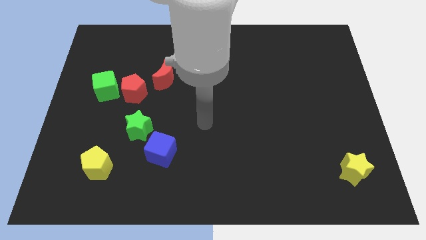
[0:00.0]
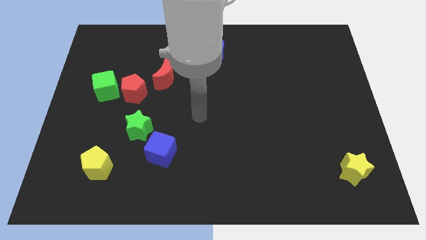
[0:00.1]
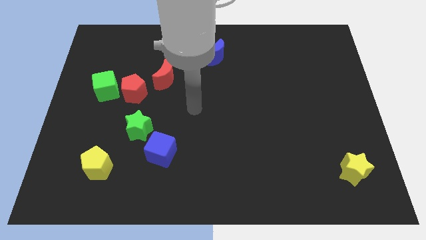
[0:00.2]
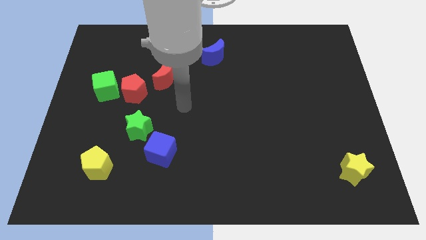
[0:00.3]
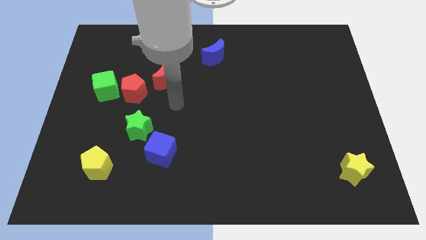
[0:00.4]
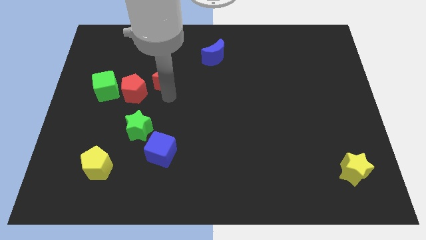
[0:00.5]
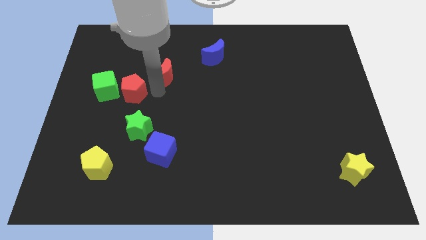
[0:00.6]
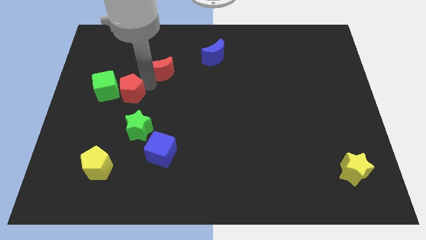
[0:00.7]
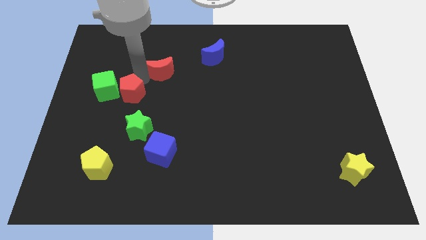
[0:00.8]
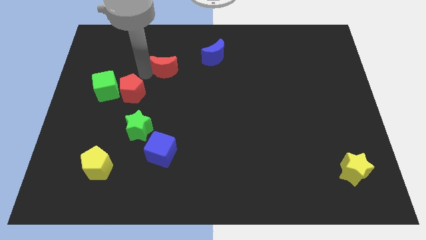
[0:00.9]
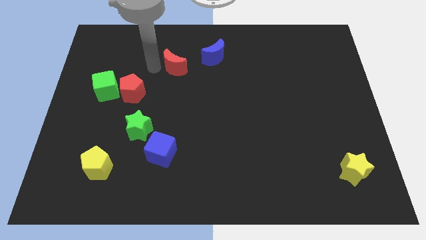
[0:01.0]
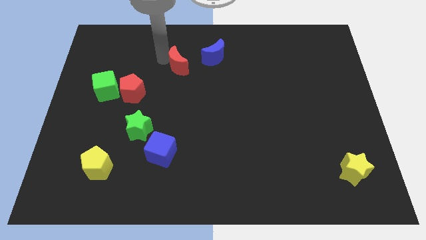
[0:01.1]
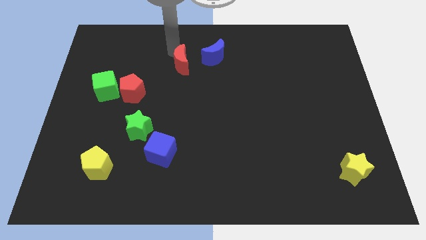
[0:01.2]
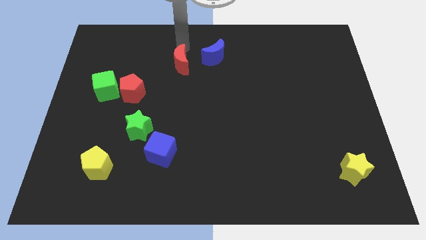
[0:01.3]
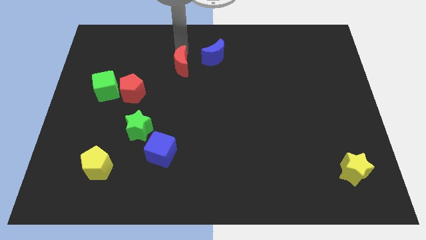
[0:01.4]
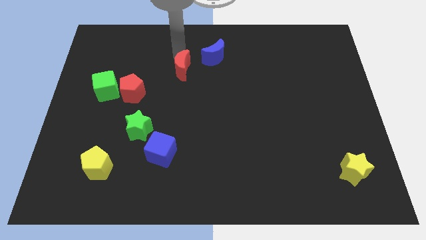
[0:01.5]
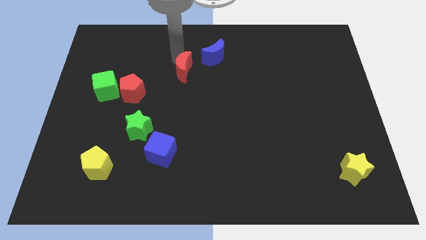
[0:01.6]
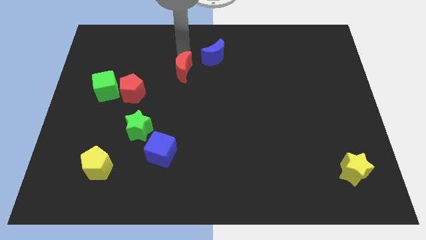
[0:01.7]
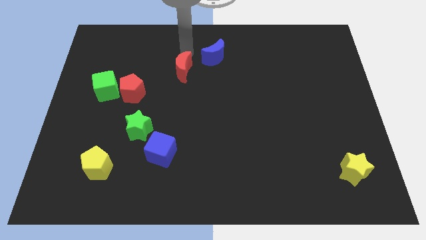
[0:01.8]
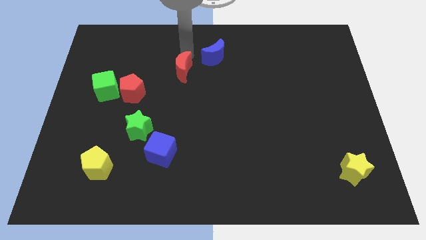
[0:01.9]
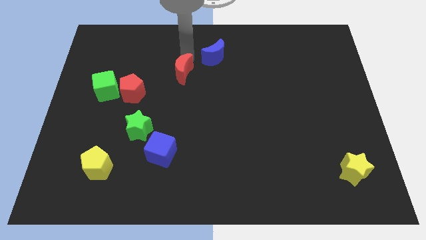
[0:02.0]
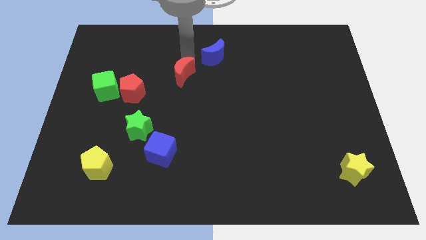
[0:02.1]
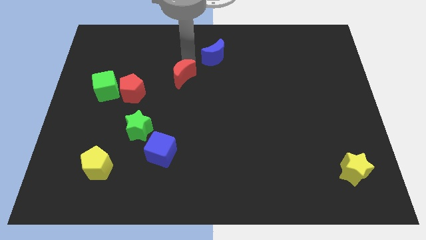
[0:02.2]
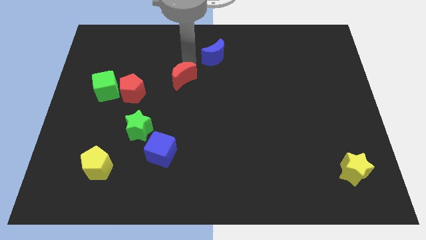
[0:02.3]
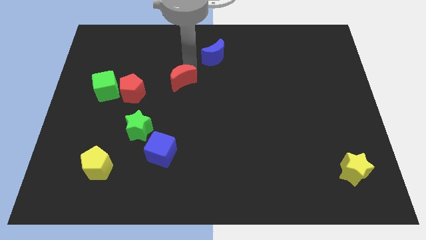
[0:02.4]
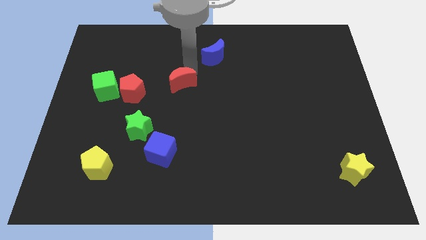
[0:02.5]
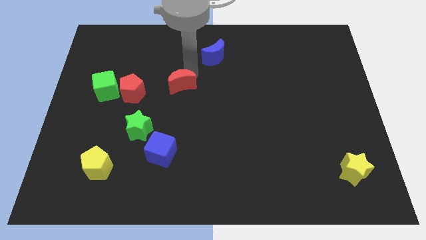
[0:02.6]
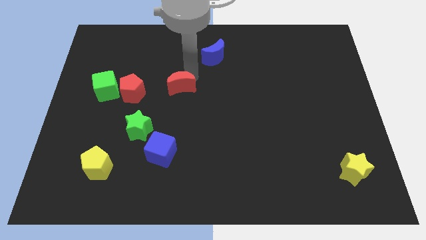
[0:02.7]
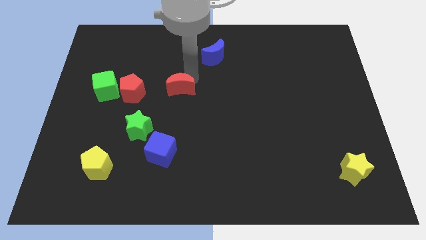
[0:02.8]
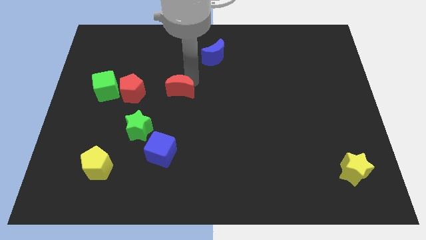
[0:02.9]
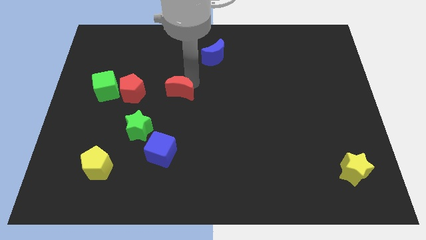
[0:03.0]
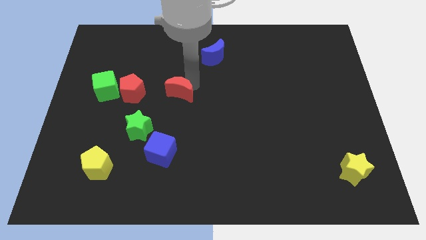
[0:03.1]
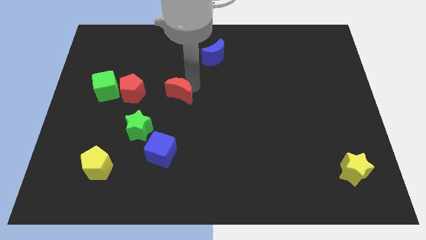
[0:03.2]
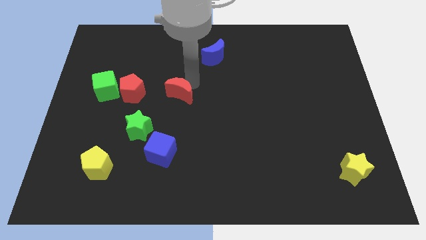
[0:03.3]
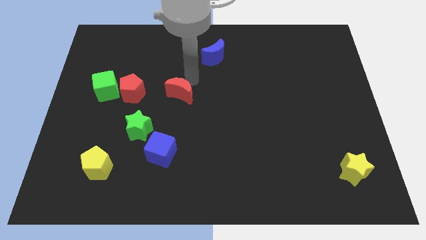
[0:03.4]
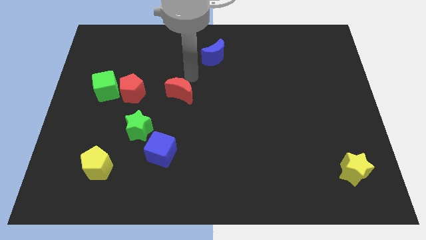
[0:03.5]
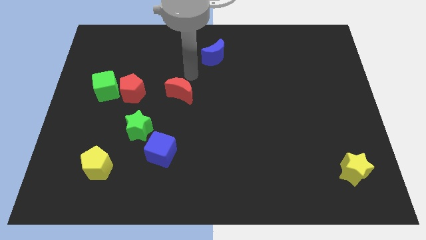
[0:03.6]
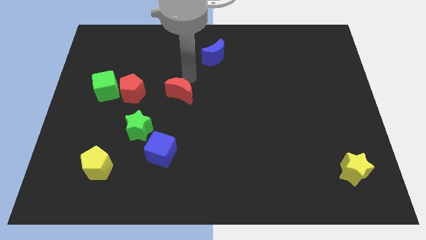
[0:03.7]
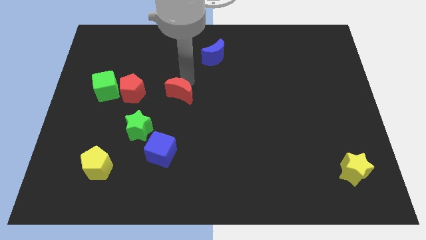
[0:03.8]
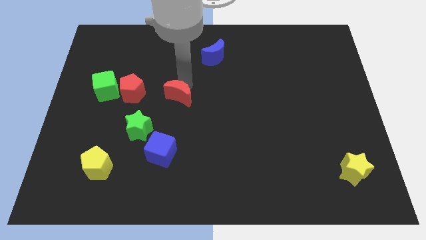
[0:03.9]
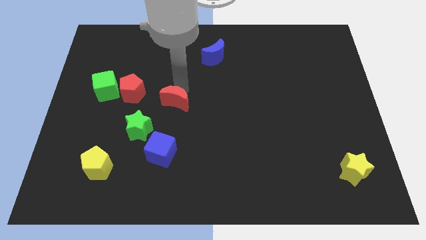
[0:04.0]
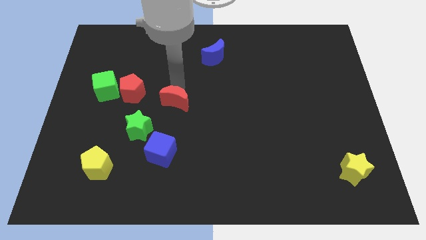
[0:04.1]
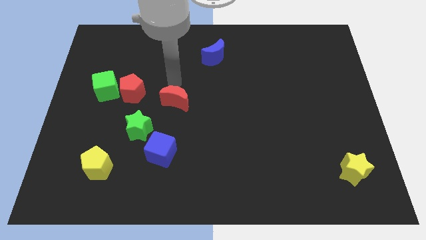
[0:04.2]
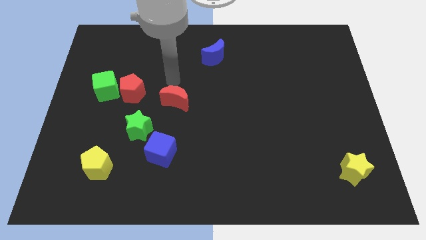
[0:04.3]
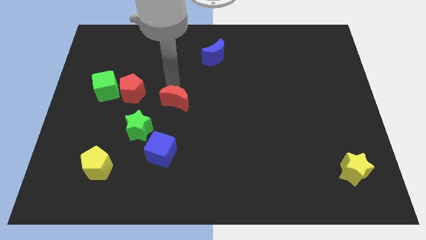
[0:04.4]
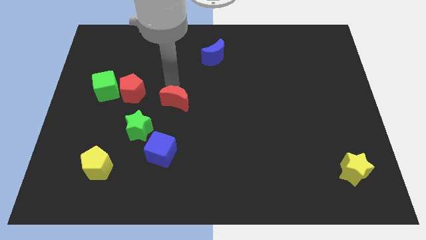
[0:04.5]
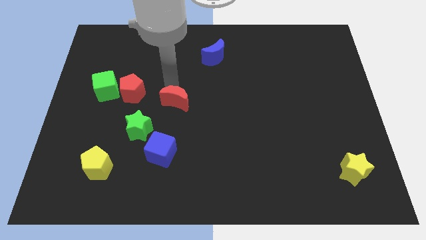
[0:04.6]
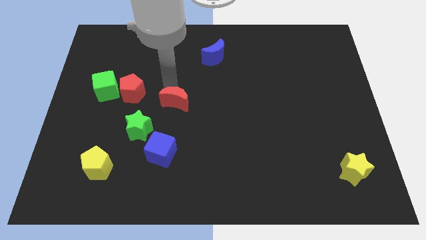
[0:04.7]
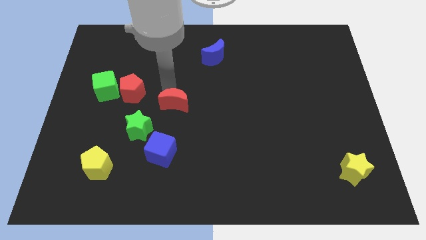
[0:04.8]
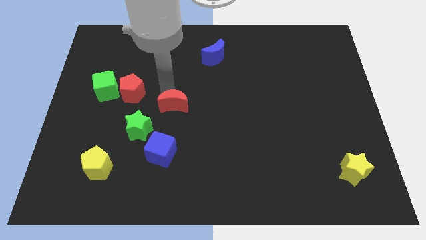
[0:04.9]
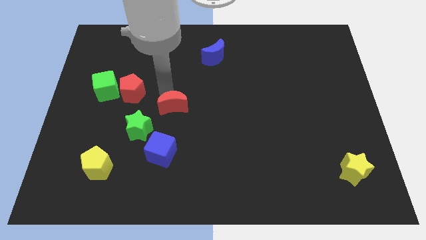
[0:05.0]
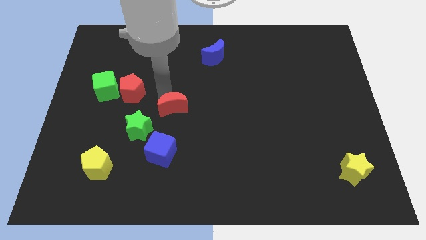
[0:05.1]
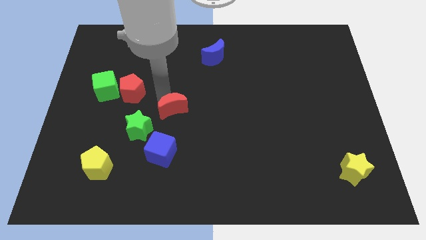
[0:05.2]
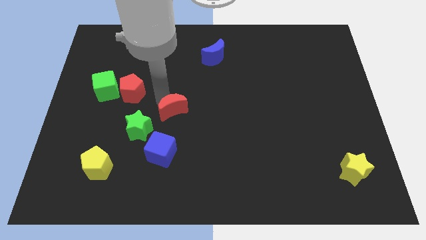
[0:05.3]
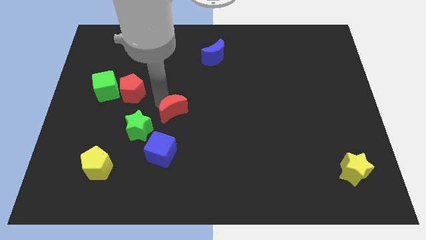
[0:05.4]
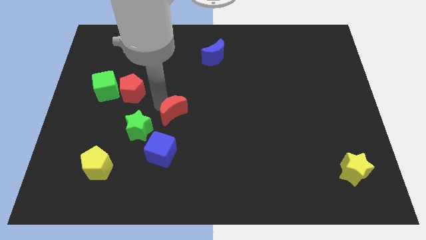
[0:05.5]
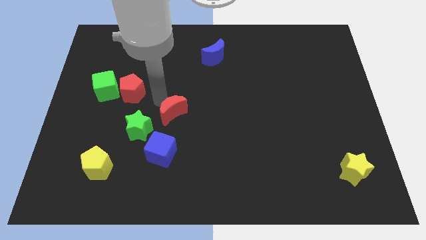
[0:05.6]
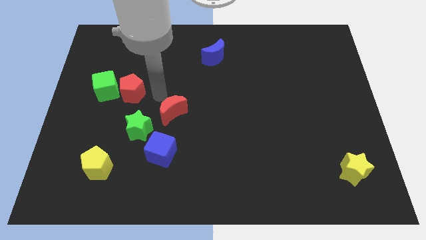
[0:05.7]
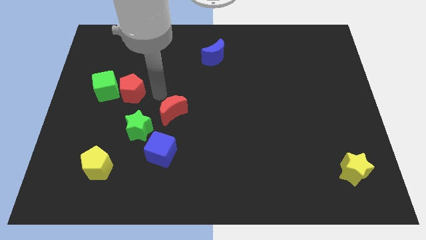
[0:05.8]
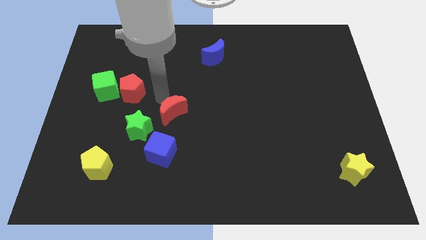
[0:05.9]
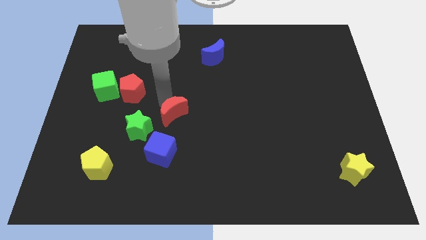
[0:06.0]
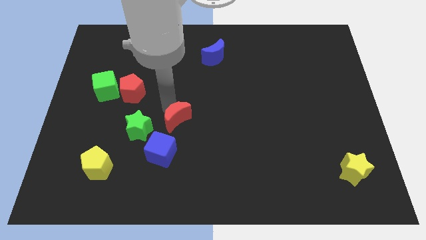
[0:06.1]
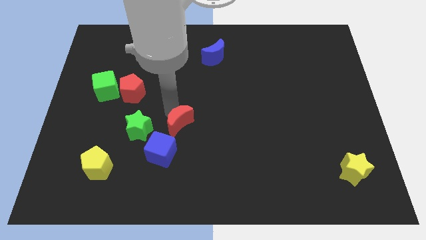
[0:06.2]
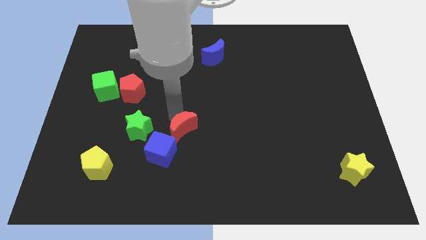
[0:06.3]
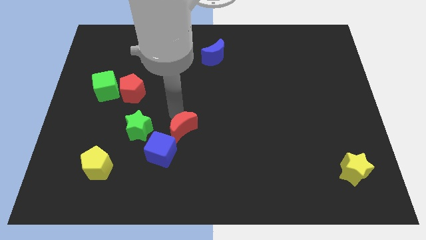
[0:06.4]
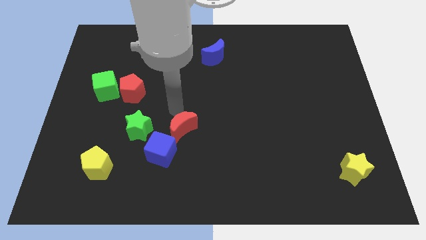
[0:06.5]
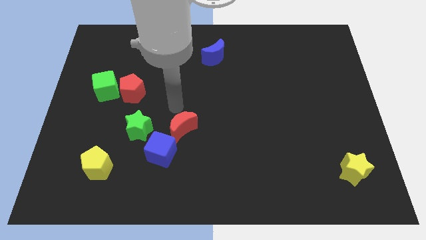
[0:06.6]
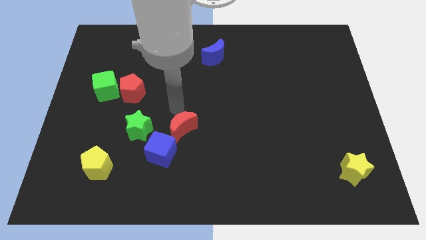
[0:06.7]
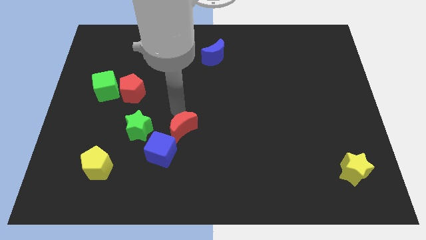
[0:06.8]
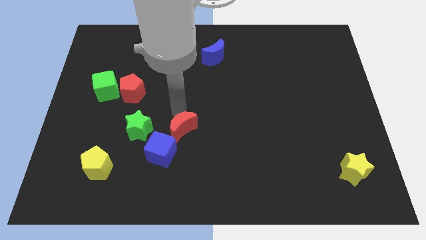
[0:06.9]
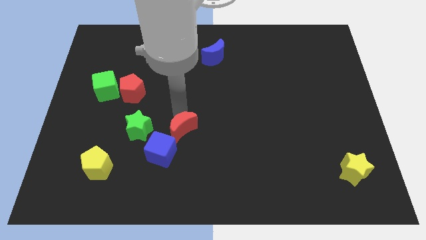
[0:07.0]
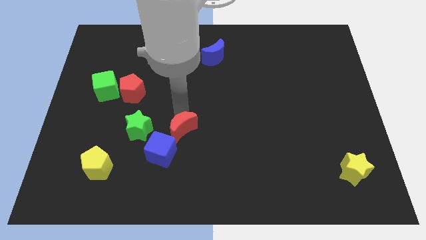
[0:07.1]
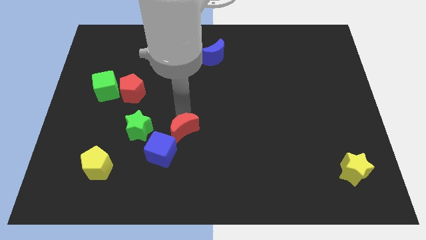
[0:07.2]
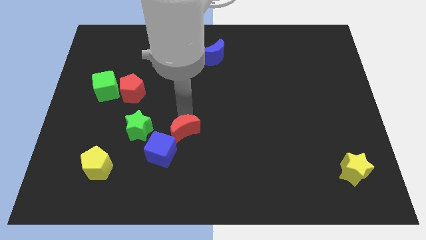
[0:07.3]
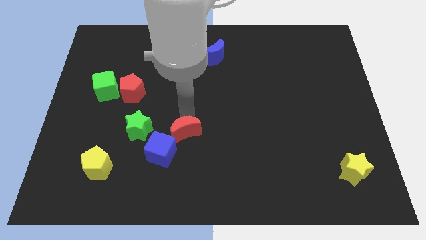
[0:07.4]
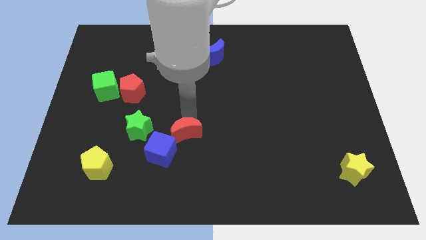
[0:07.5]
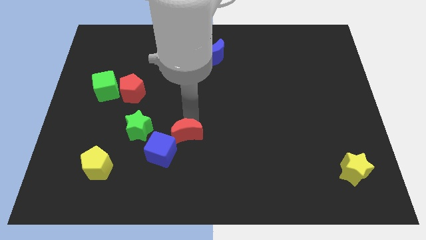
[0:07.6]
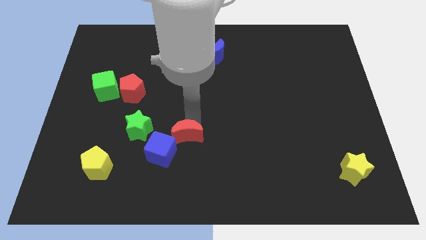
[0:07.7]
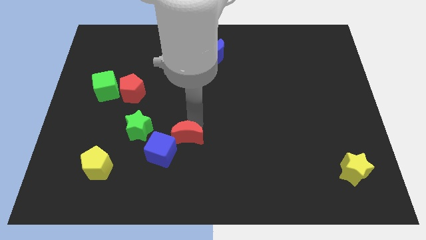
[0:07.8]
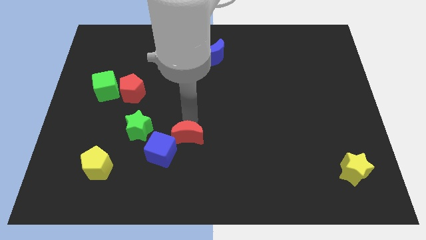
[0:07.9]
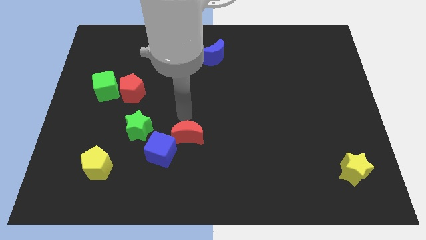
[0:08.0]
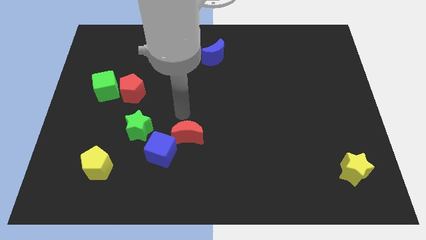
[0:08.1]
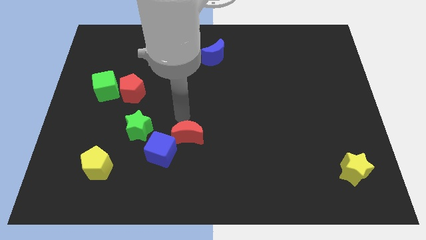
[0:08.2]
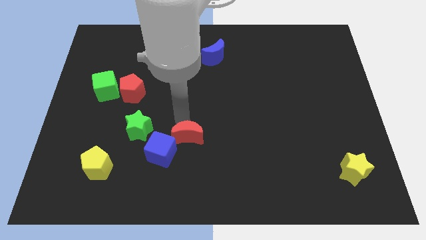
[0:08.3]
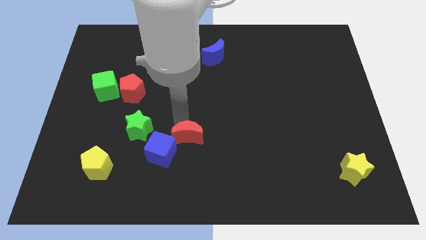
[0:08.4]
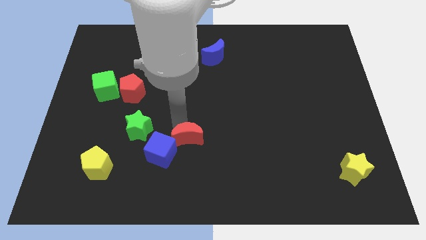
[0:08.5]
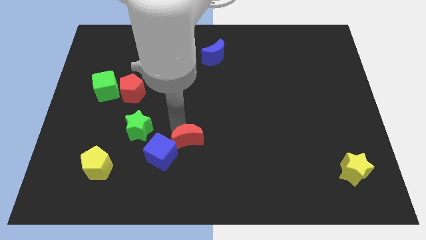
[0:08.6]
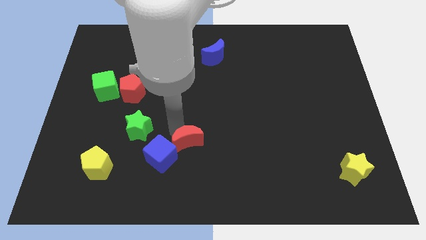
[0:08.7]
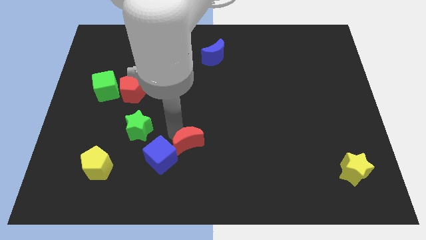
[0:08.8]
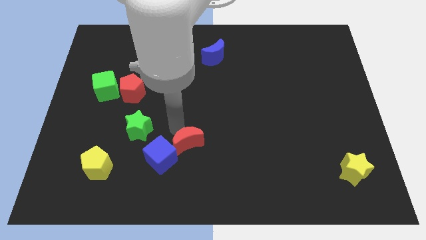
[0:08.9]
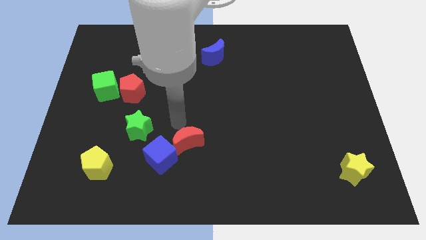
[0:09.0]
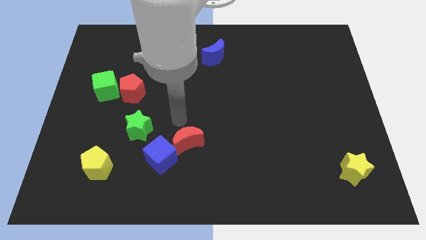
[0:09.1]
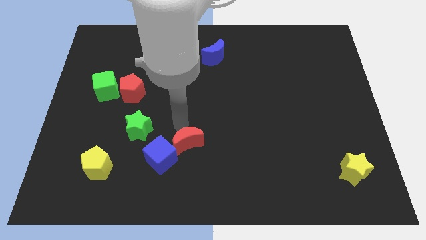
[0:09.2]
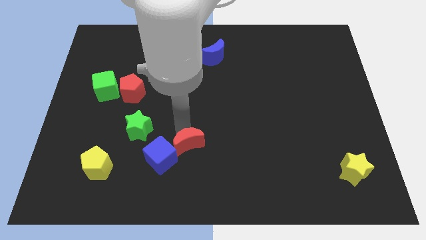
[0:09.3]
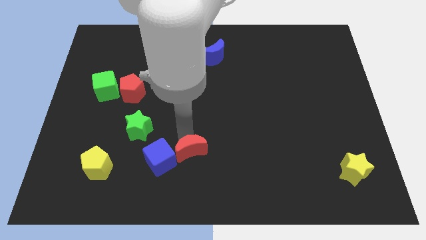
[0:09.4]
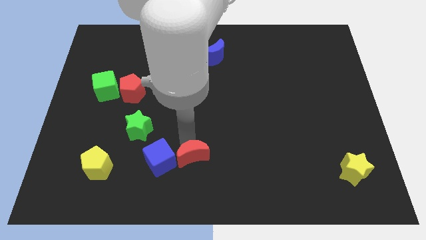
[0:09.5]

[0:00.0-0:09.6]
put the red moon to the bottom side
